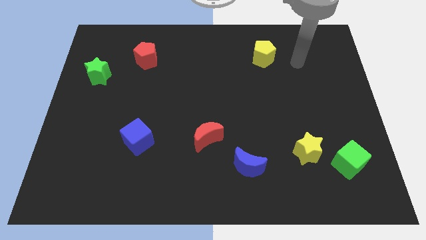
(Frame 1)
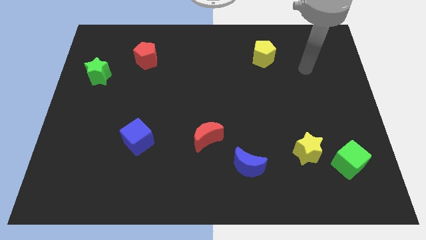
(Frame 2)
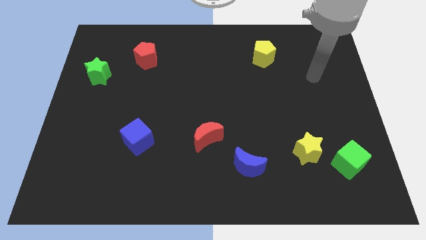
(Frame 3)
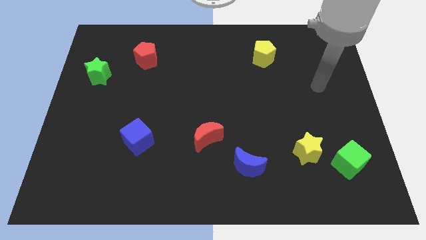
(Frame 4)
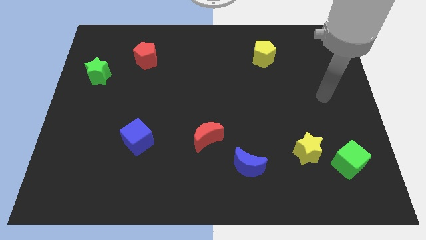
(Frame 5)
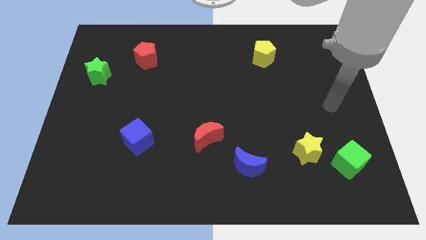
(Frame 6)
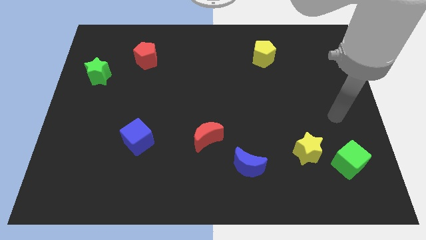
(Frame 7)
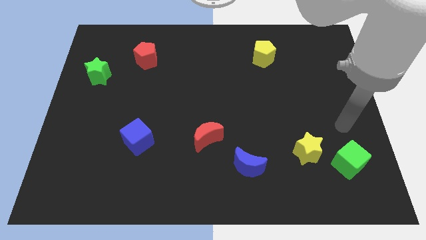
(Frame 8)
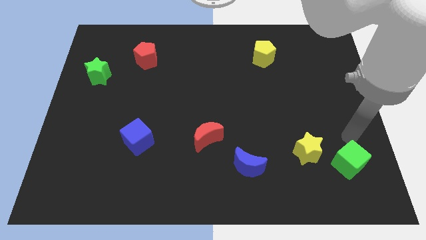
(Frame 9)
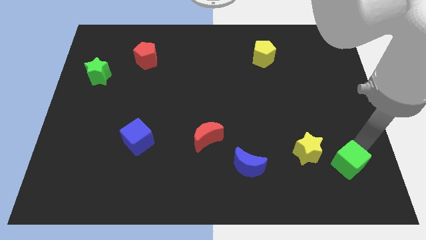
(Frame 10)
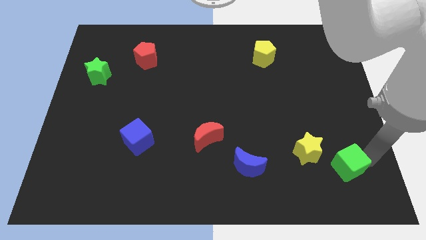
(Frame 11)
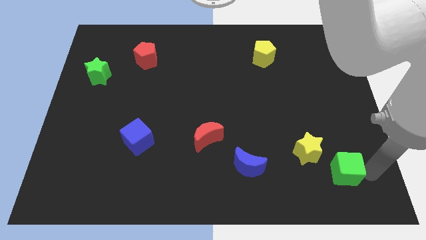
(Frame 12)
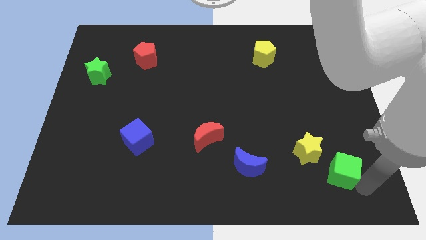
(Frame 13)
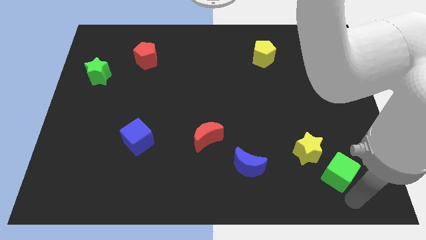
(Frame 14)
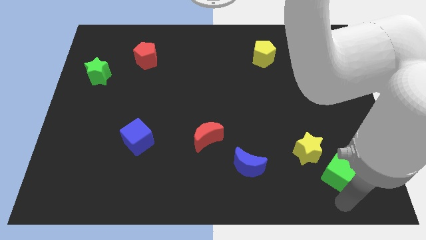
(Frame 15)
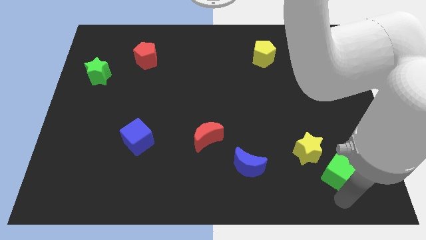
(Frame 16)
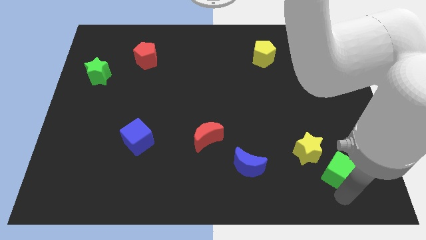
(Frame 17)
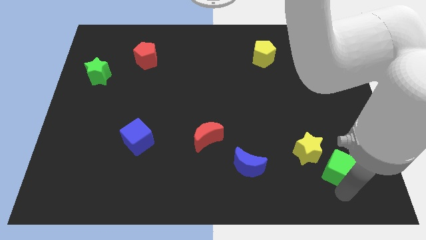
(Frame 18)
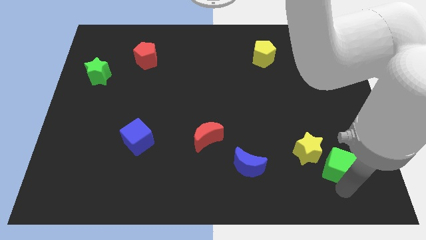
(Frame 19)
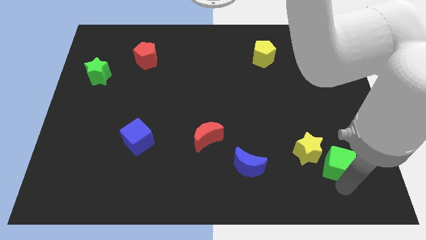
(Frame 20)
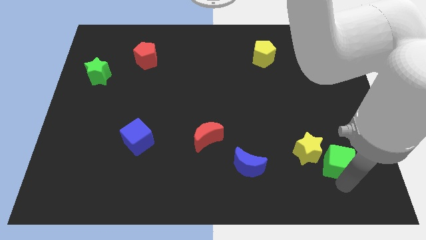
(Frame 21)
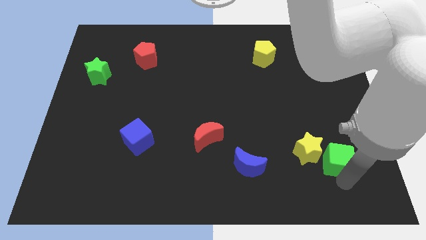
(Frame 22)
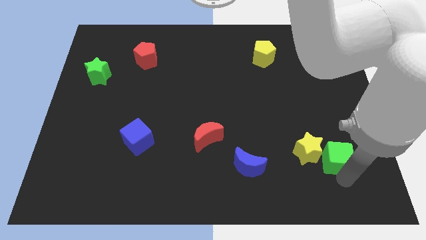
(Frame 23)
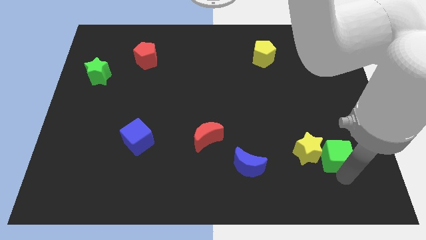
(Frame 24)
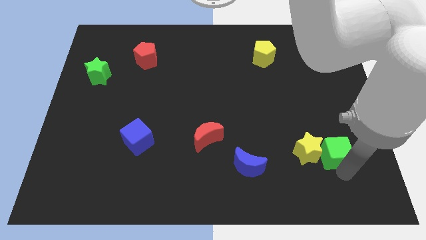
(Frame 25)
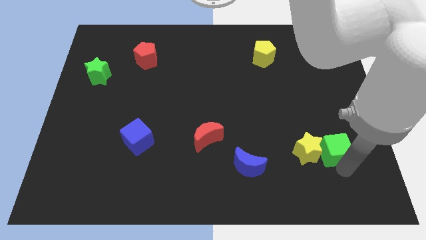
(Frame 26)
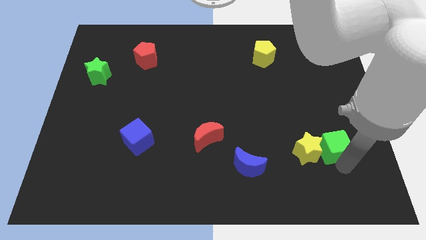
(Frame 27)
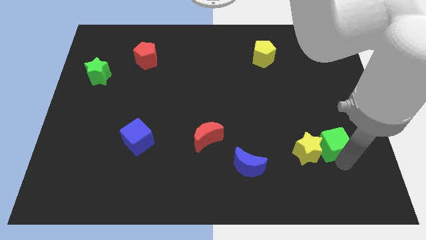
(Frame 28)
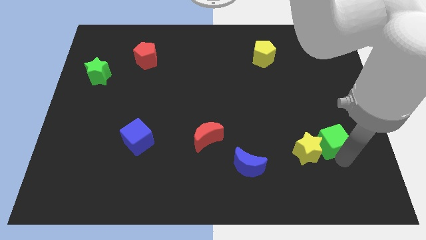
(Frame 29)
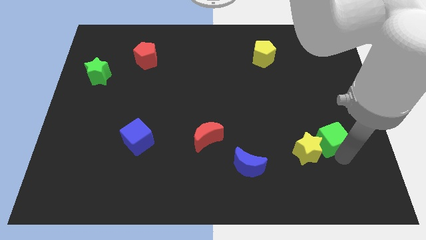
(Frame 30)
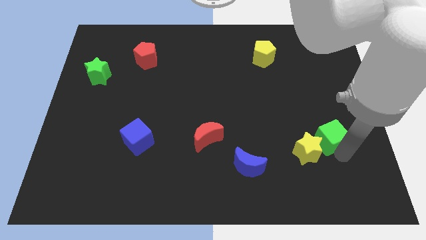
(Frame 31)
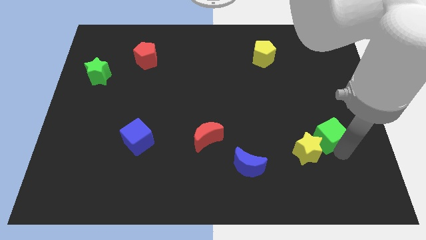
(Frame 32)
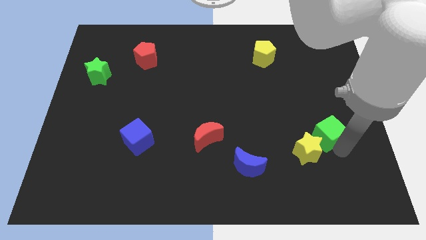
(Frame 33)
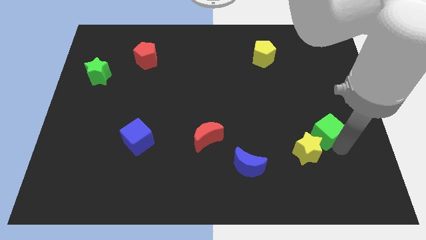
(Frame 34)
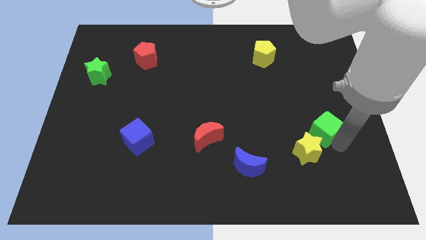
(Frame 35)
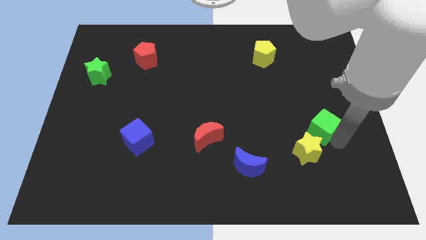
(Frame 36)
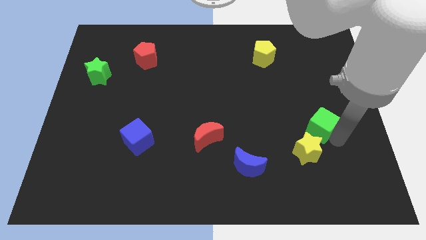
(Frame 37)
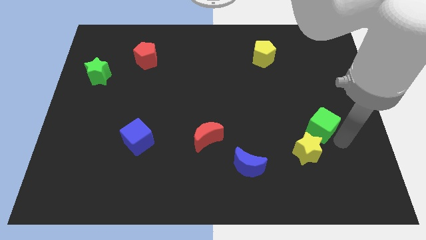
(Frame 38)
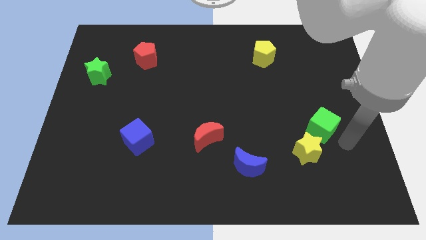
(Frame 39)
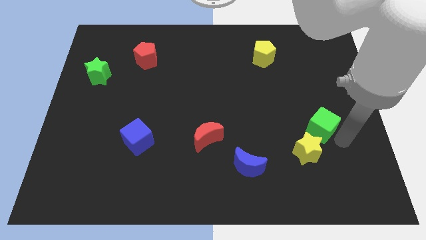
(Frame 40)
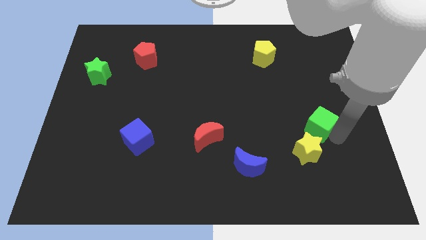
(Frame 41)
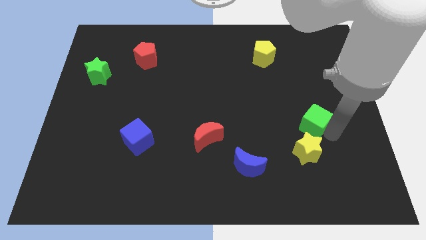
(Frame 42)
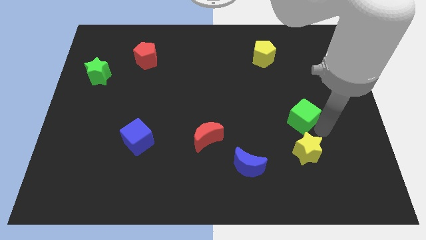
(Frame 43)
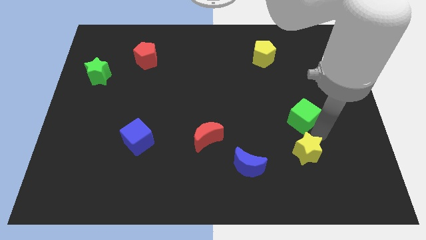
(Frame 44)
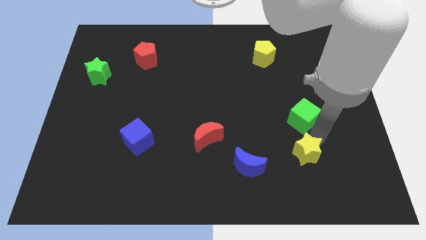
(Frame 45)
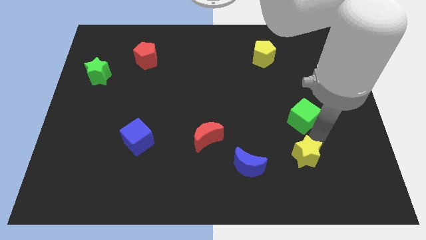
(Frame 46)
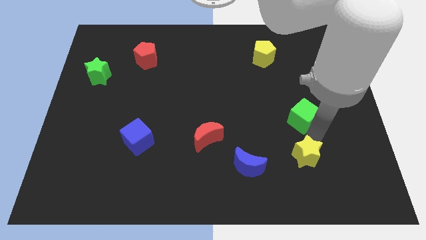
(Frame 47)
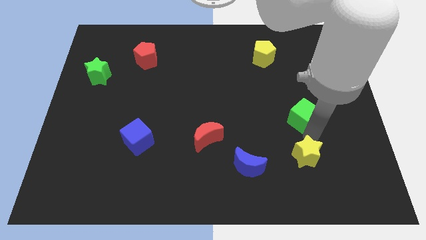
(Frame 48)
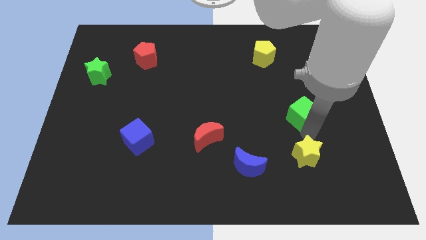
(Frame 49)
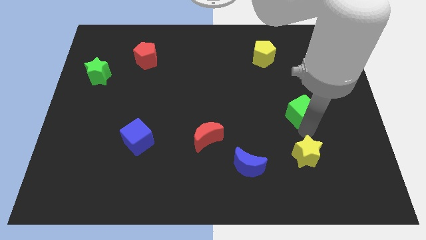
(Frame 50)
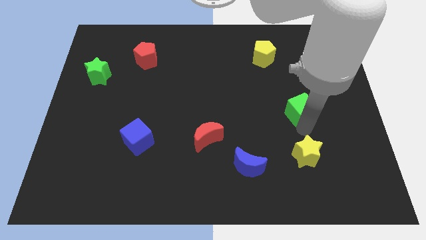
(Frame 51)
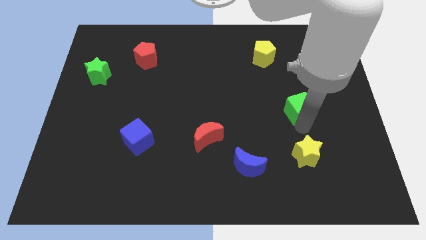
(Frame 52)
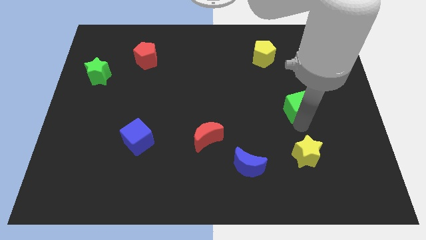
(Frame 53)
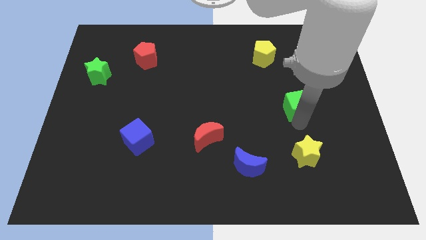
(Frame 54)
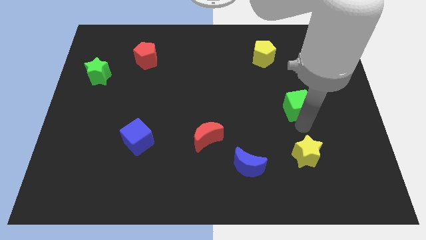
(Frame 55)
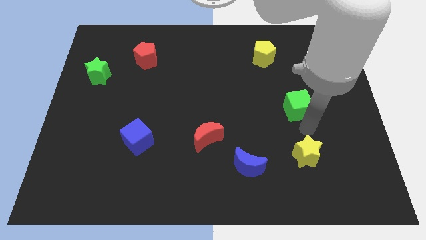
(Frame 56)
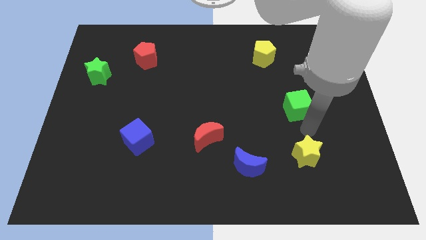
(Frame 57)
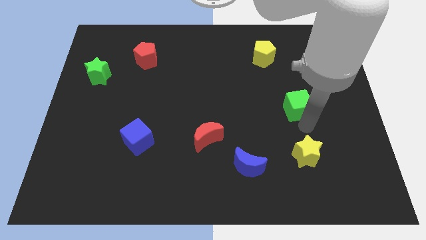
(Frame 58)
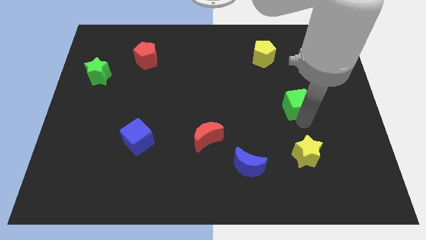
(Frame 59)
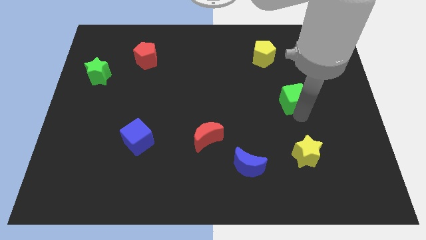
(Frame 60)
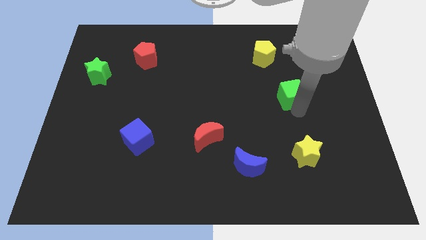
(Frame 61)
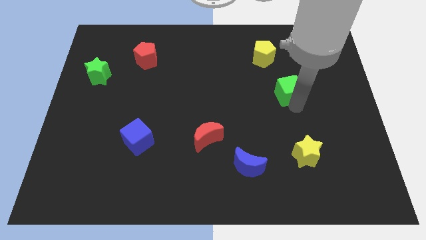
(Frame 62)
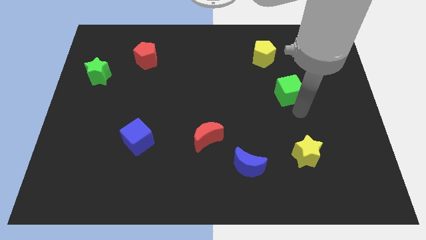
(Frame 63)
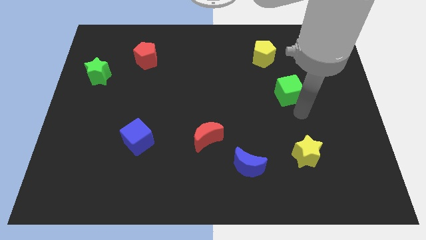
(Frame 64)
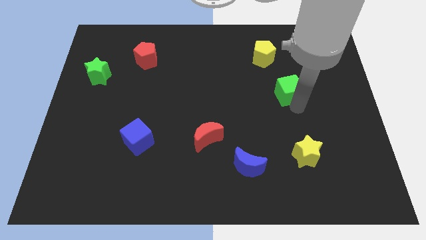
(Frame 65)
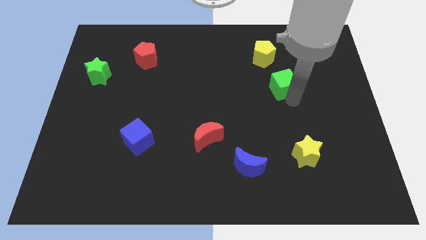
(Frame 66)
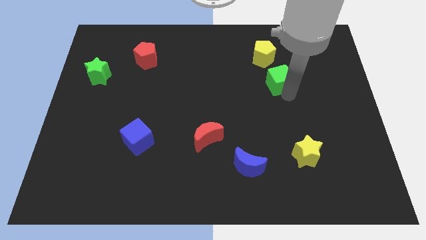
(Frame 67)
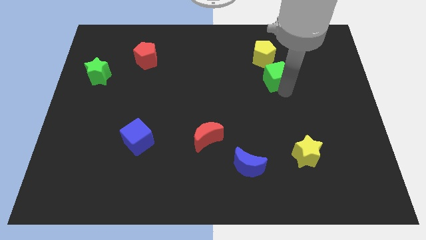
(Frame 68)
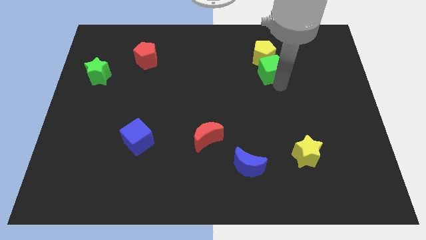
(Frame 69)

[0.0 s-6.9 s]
move the green cube close to the yellow pentagon

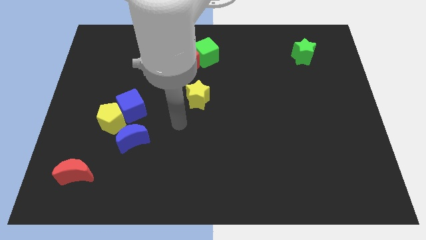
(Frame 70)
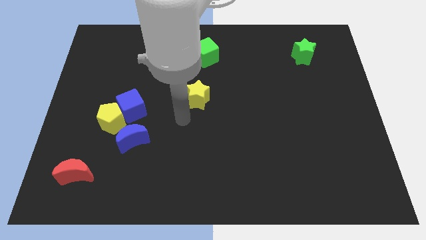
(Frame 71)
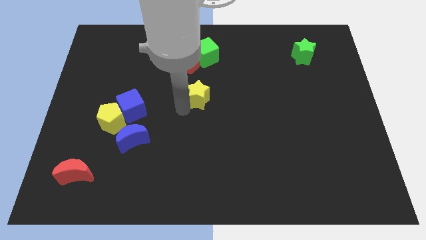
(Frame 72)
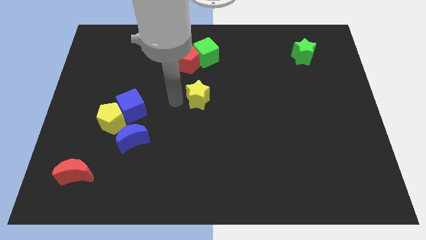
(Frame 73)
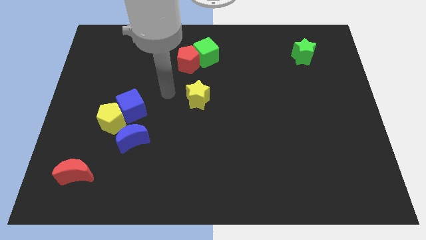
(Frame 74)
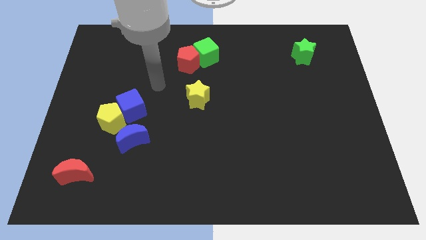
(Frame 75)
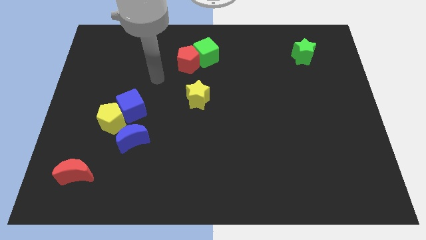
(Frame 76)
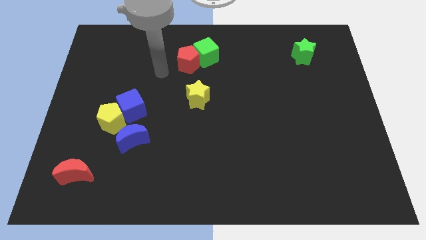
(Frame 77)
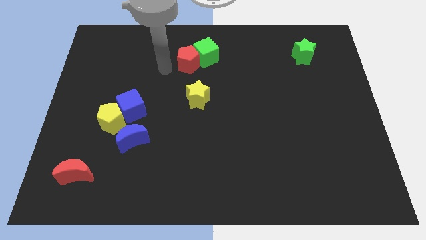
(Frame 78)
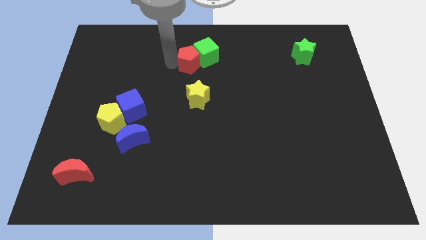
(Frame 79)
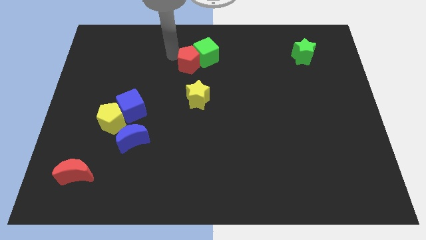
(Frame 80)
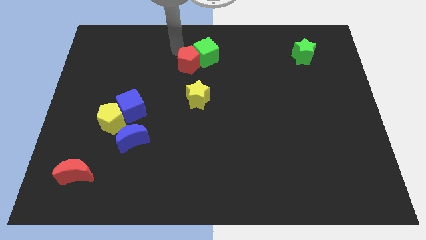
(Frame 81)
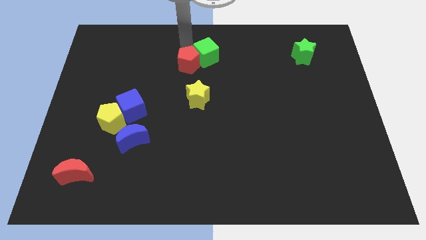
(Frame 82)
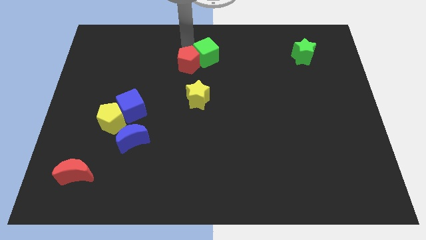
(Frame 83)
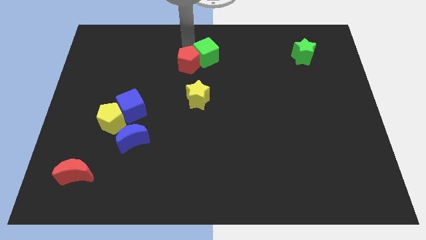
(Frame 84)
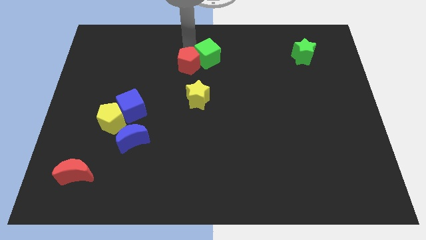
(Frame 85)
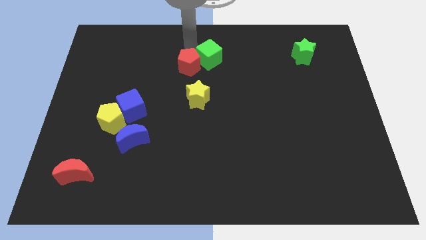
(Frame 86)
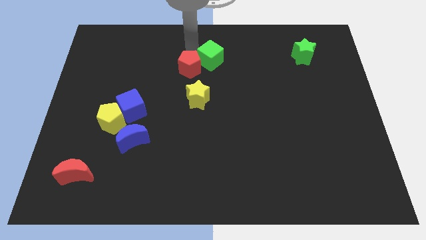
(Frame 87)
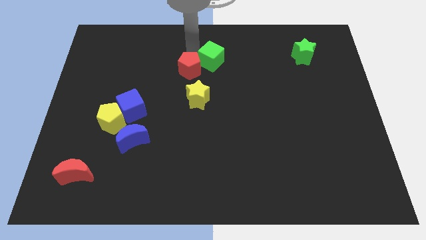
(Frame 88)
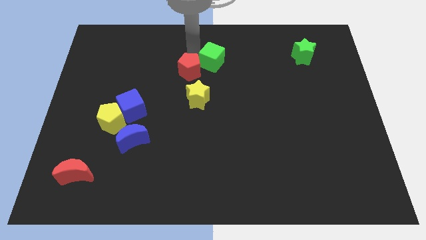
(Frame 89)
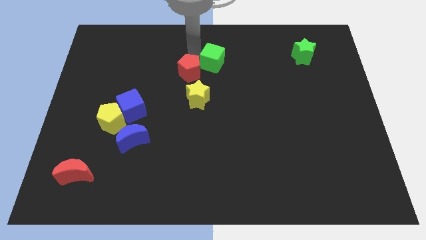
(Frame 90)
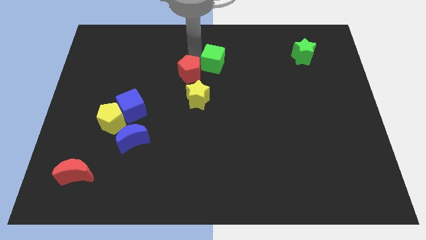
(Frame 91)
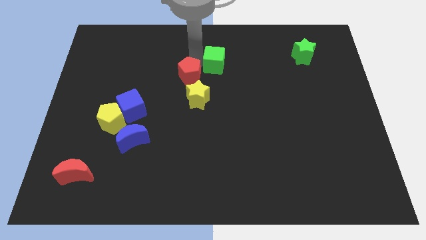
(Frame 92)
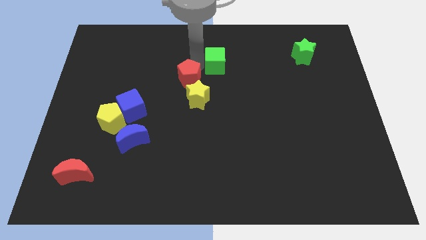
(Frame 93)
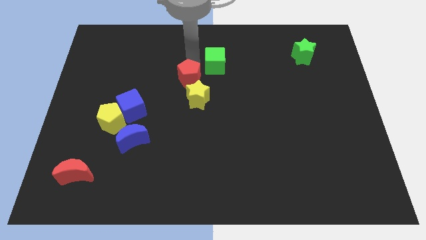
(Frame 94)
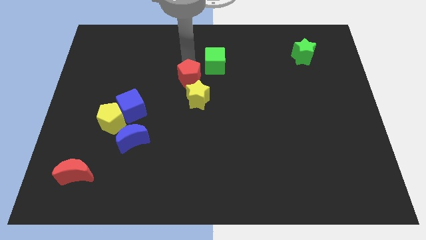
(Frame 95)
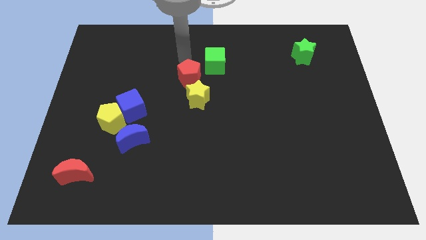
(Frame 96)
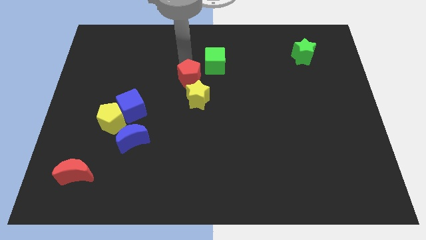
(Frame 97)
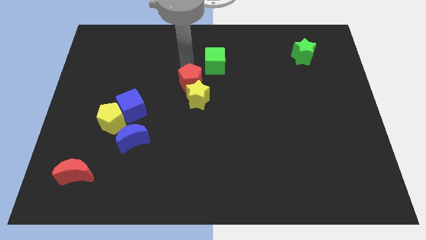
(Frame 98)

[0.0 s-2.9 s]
put the red pentagon close to the yellow star
